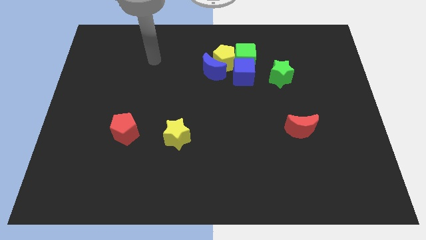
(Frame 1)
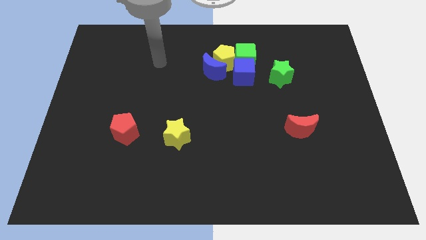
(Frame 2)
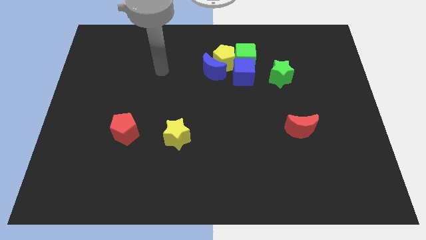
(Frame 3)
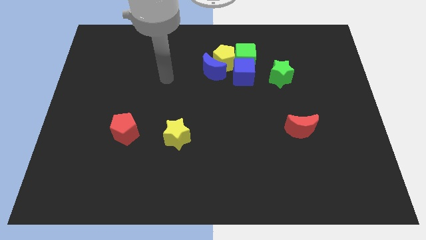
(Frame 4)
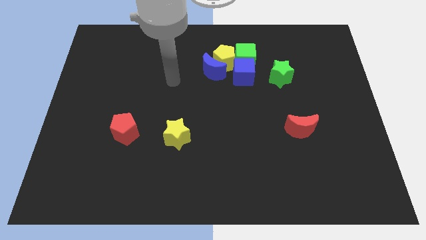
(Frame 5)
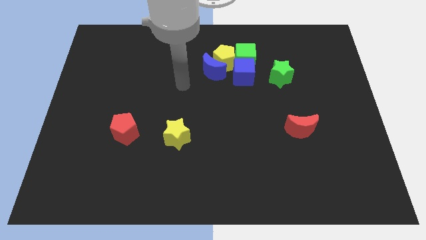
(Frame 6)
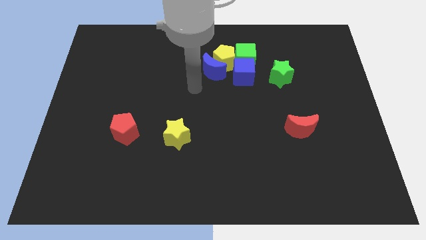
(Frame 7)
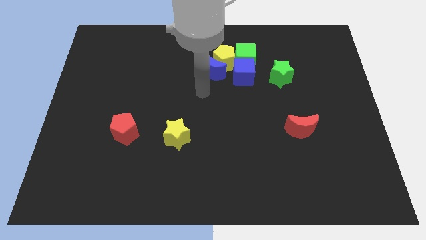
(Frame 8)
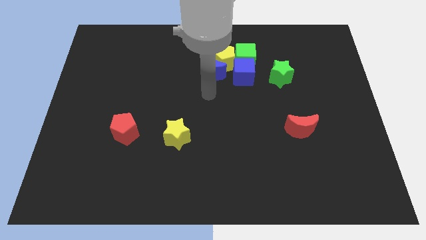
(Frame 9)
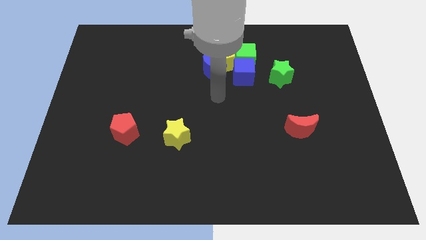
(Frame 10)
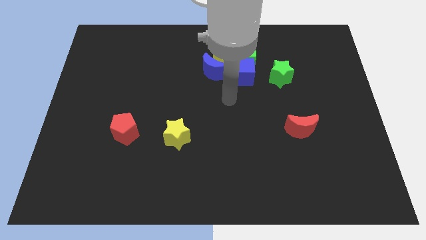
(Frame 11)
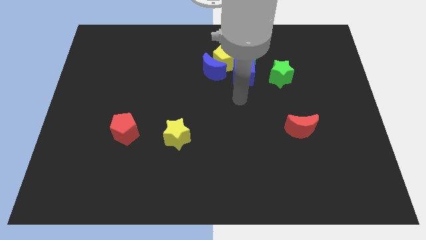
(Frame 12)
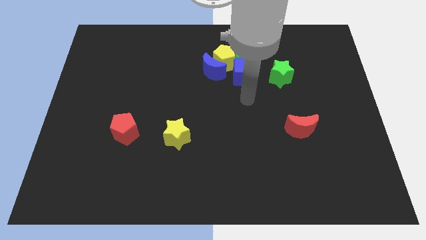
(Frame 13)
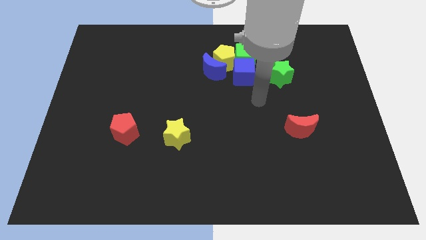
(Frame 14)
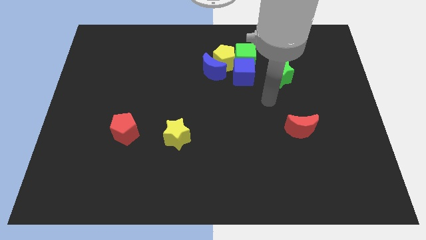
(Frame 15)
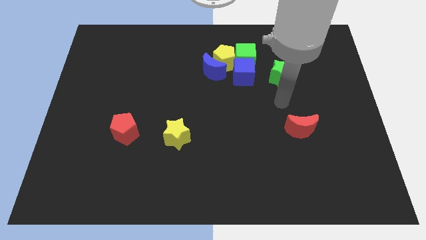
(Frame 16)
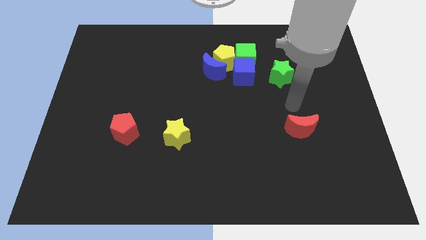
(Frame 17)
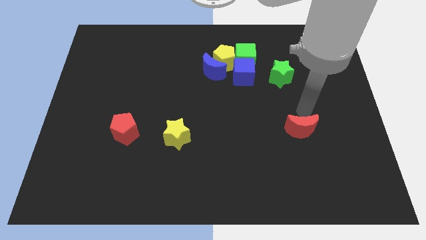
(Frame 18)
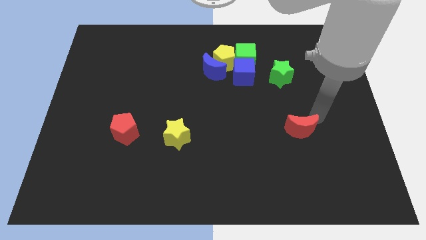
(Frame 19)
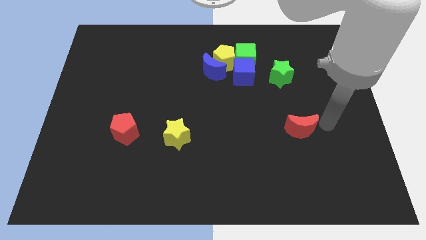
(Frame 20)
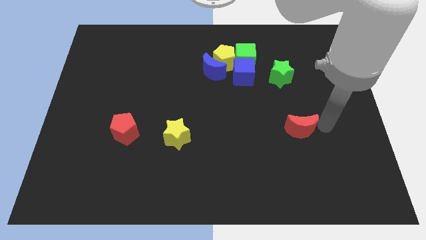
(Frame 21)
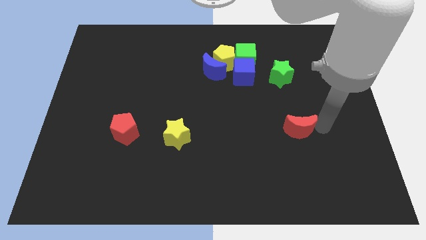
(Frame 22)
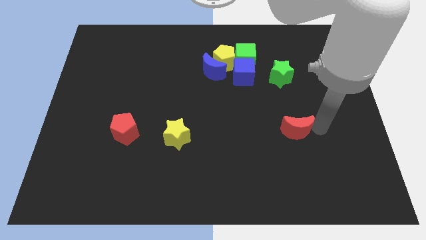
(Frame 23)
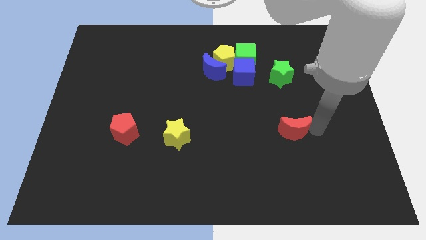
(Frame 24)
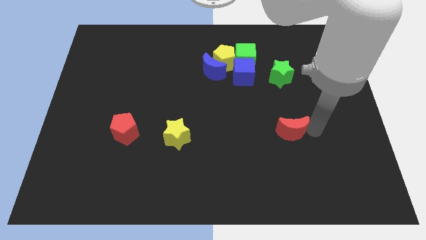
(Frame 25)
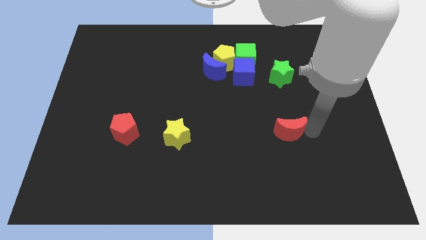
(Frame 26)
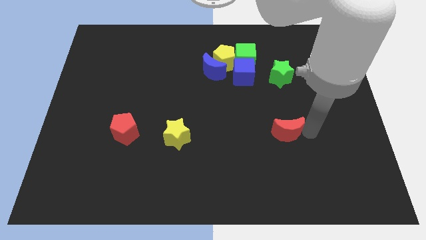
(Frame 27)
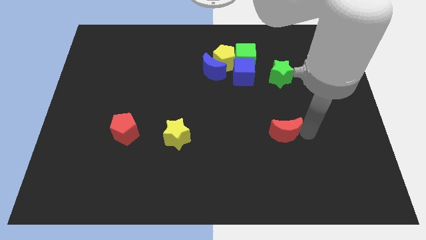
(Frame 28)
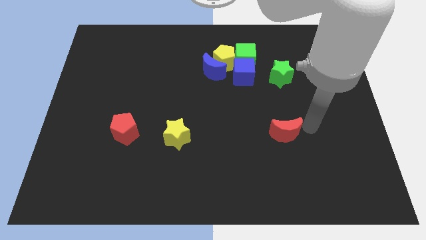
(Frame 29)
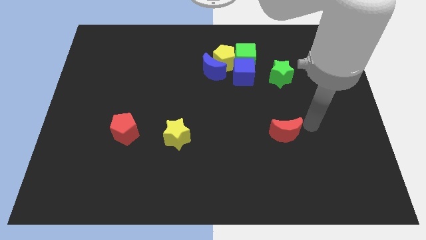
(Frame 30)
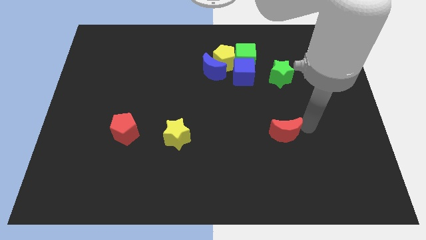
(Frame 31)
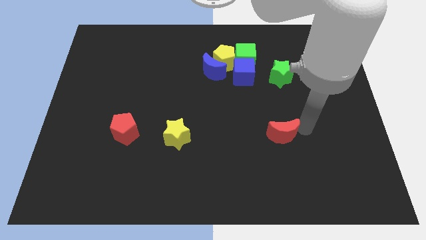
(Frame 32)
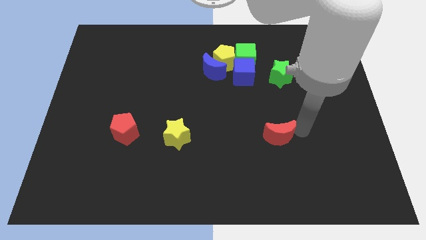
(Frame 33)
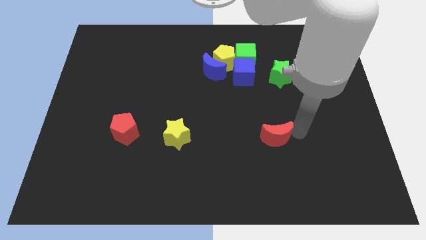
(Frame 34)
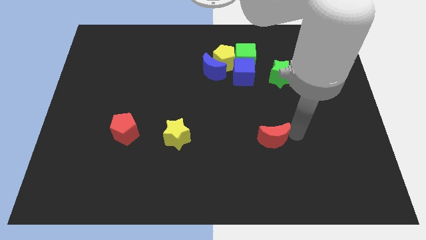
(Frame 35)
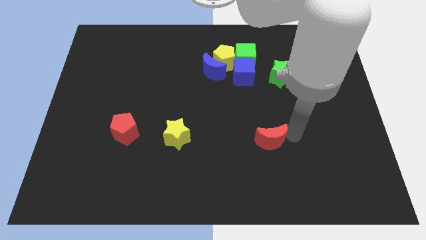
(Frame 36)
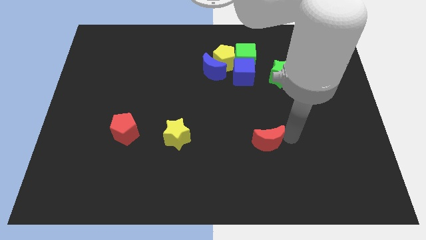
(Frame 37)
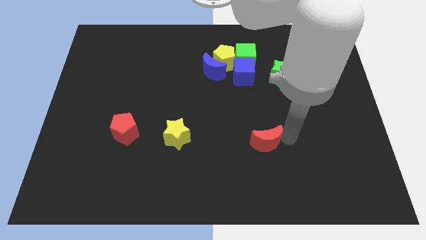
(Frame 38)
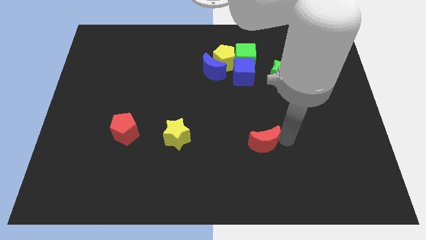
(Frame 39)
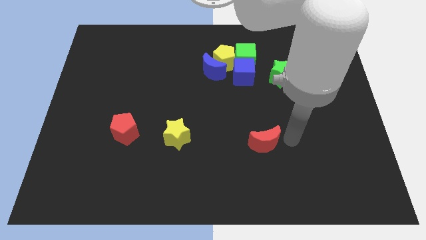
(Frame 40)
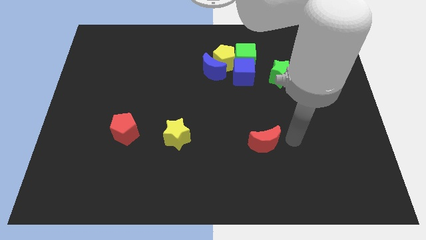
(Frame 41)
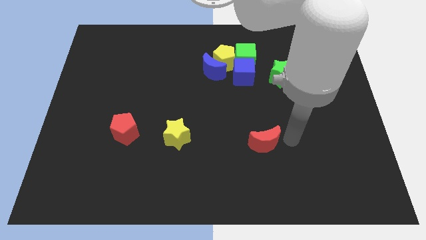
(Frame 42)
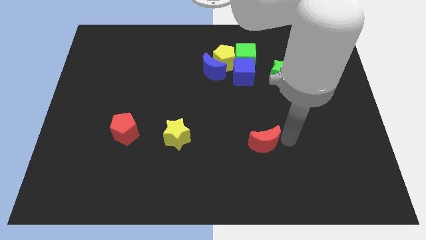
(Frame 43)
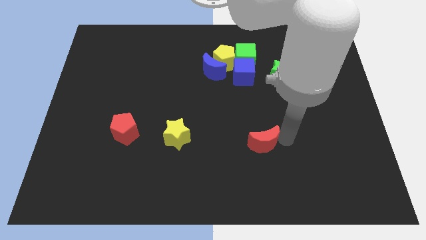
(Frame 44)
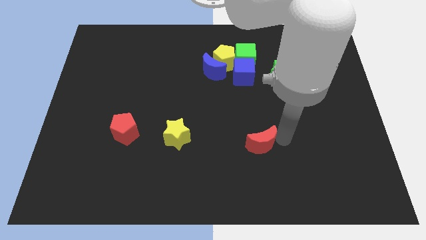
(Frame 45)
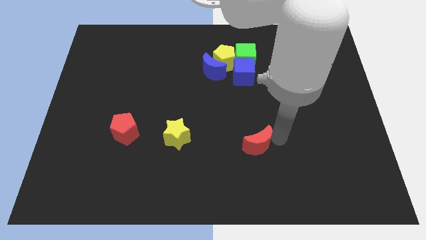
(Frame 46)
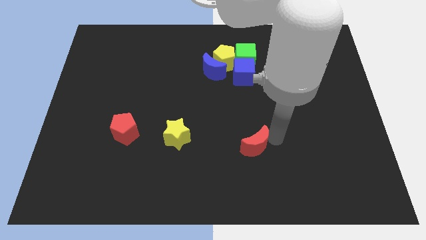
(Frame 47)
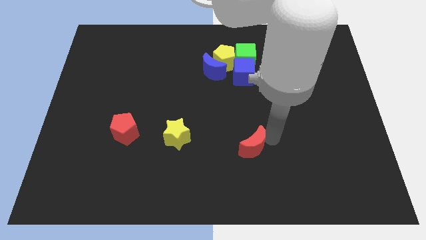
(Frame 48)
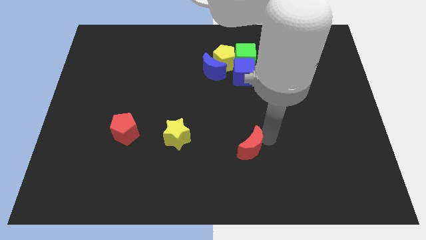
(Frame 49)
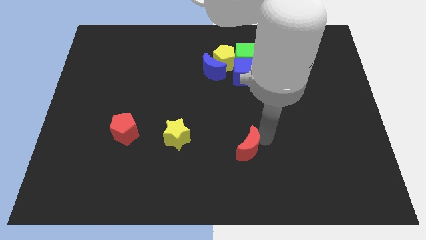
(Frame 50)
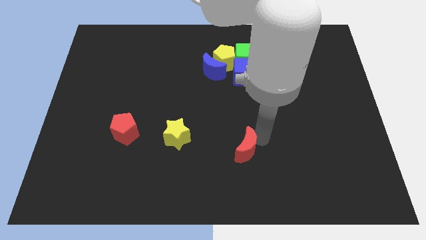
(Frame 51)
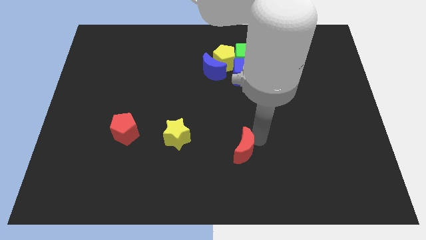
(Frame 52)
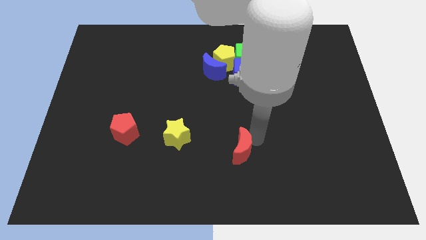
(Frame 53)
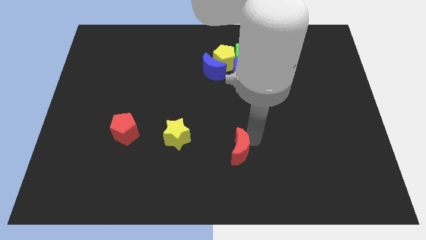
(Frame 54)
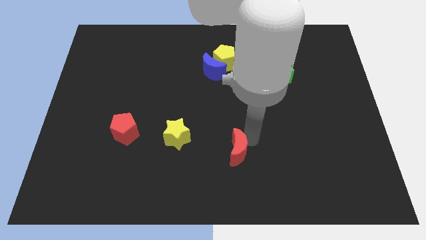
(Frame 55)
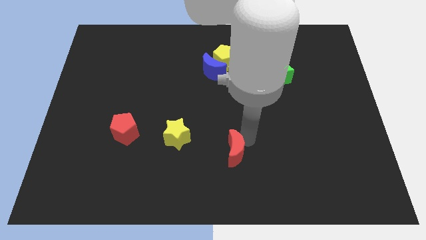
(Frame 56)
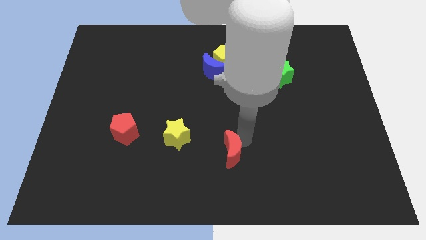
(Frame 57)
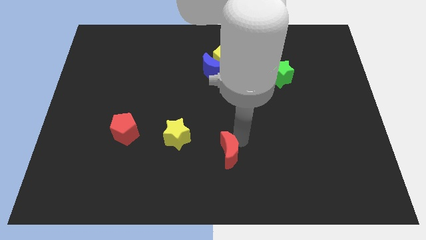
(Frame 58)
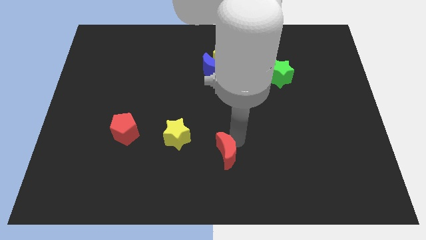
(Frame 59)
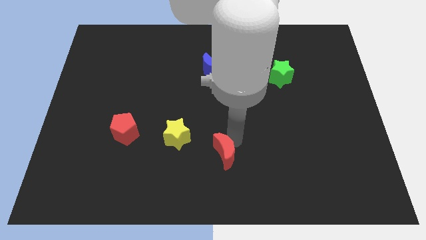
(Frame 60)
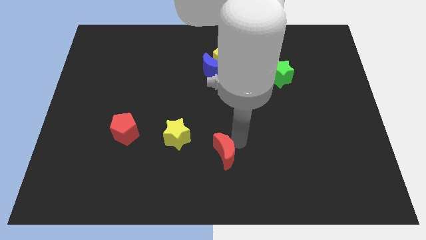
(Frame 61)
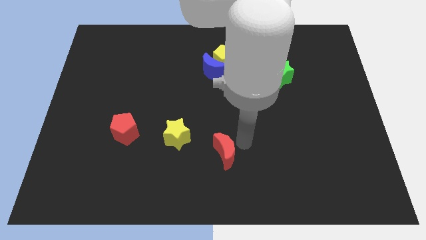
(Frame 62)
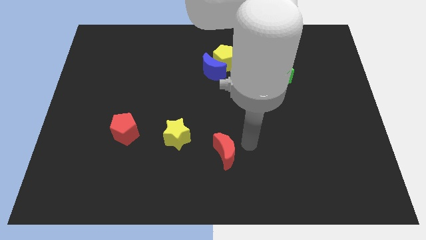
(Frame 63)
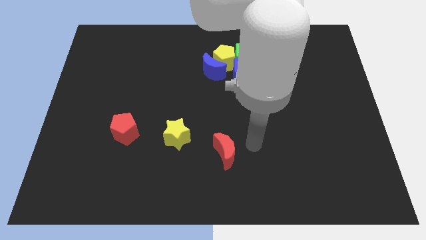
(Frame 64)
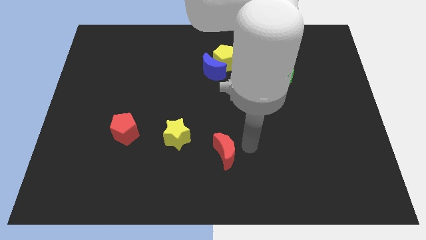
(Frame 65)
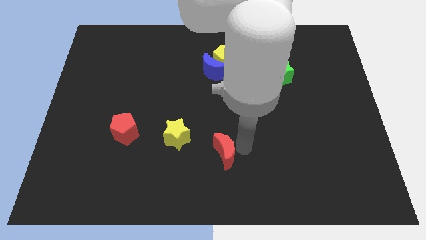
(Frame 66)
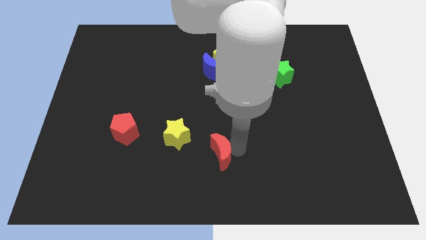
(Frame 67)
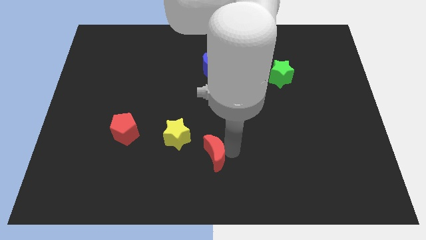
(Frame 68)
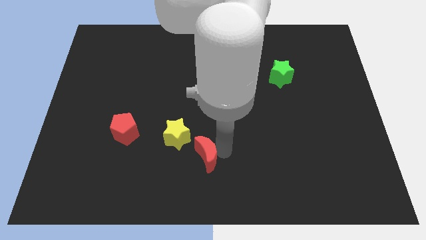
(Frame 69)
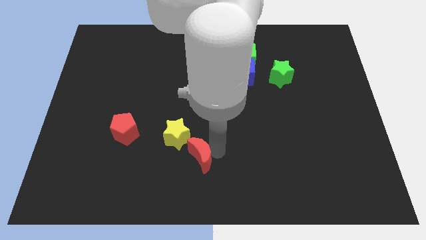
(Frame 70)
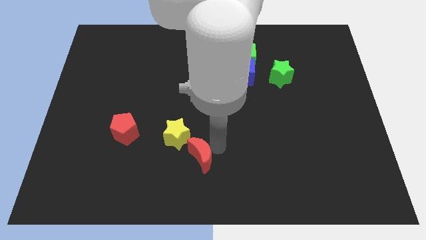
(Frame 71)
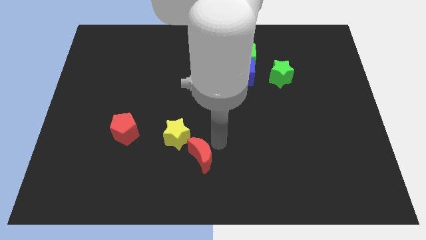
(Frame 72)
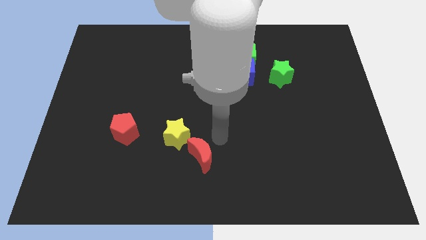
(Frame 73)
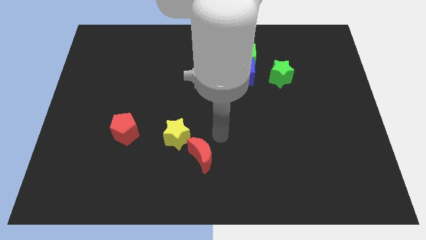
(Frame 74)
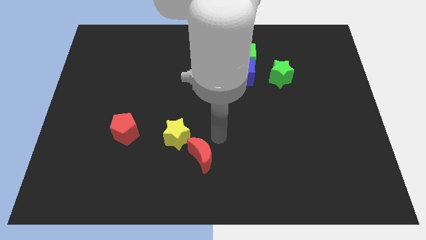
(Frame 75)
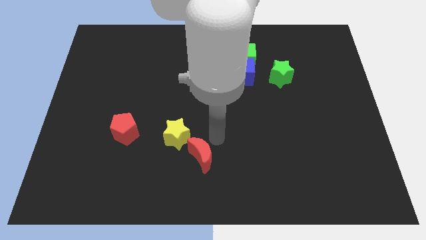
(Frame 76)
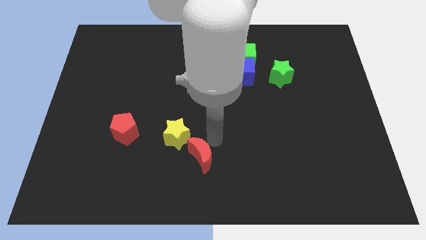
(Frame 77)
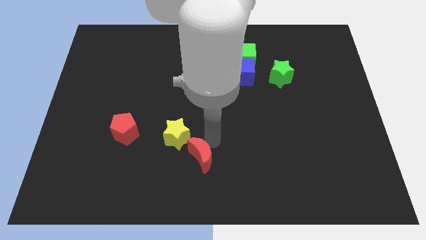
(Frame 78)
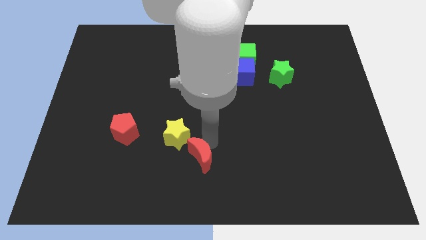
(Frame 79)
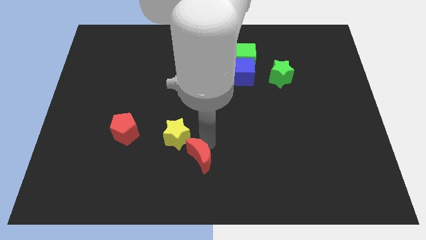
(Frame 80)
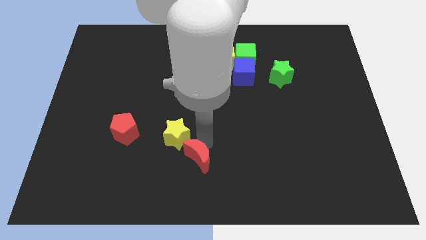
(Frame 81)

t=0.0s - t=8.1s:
move the red moon to the bottom side of the yellow star
